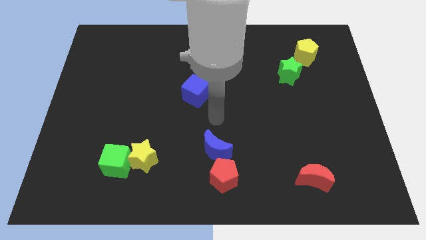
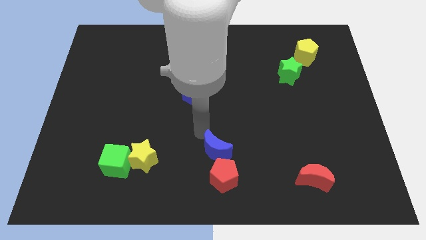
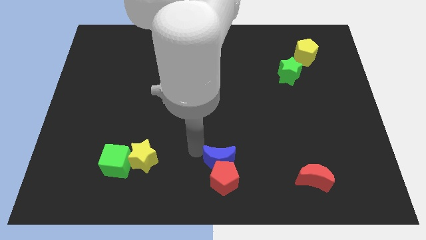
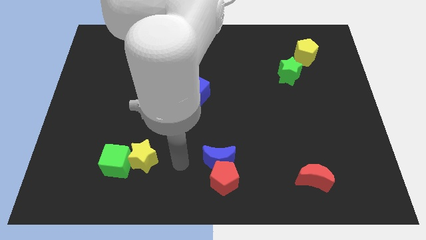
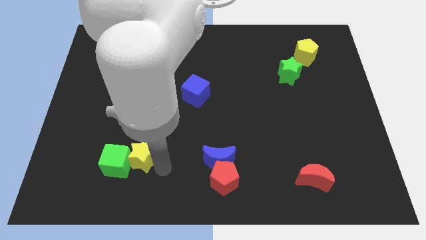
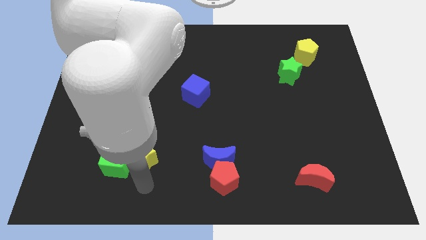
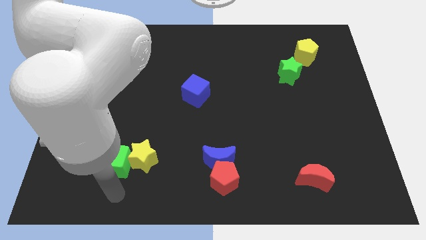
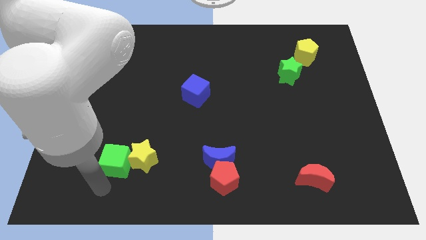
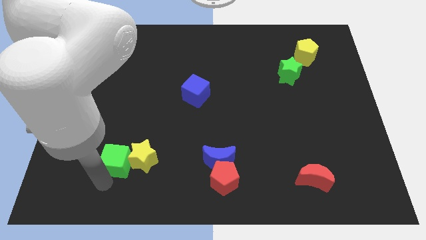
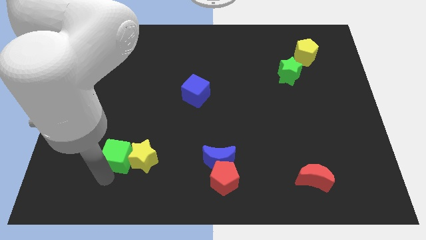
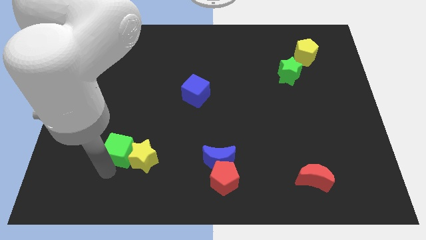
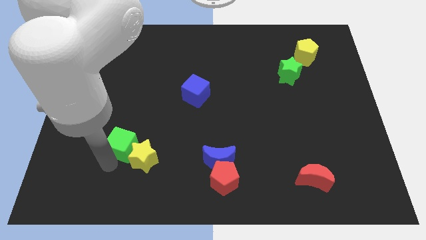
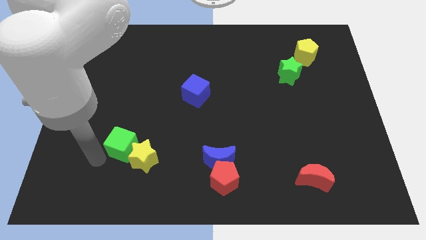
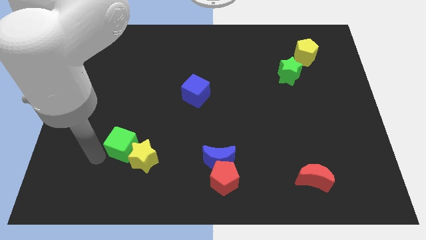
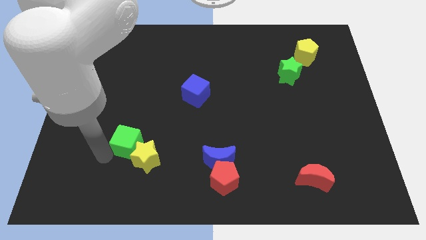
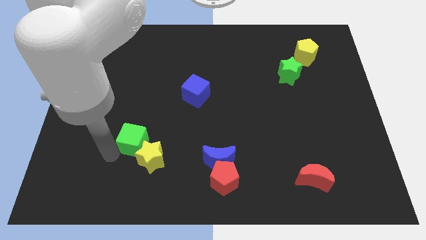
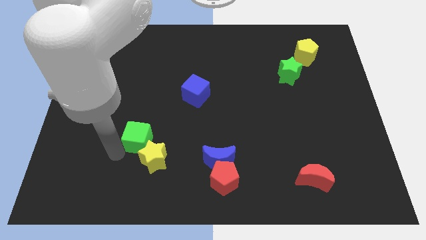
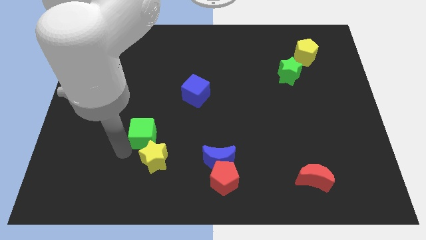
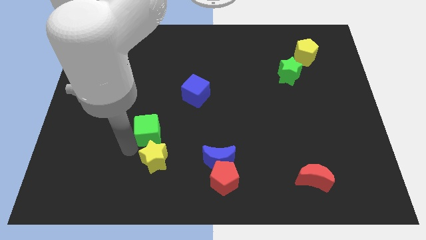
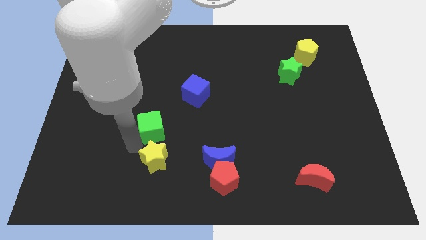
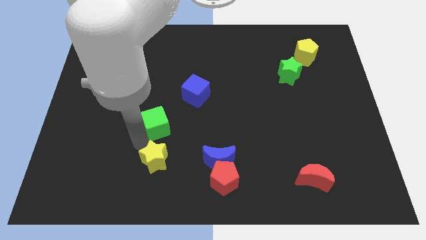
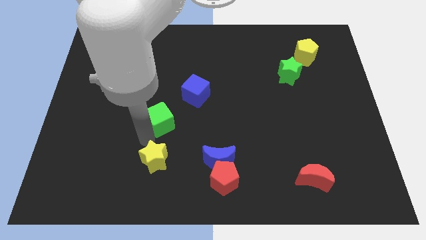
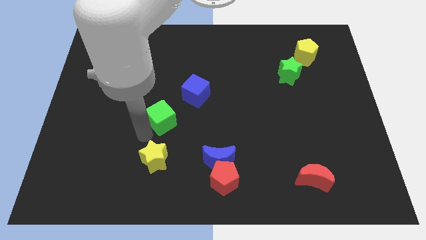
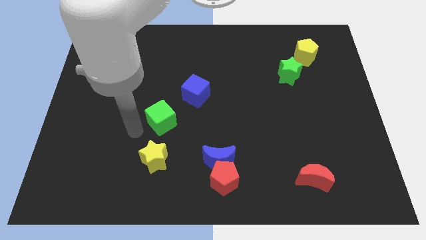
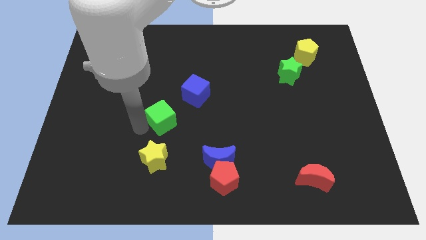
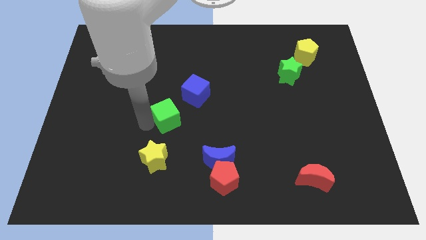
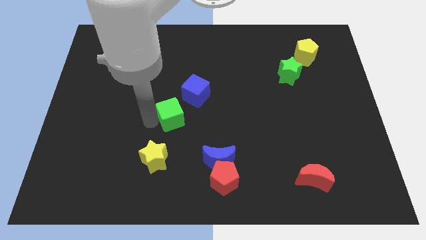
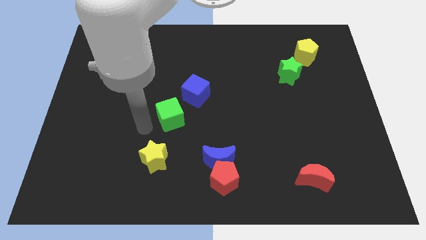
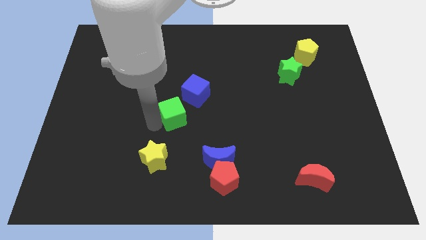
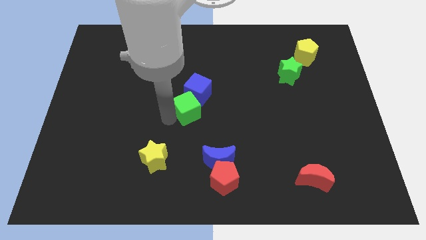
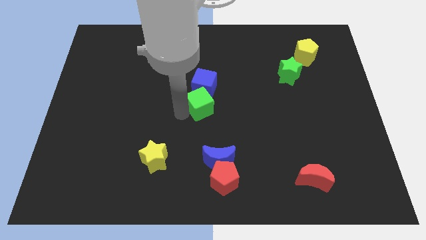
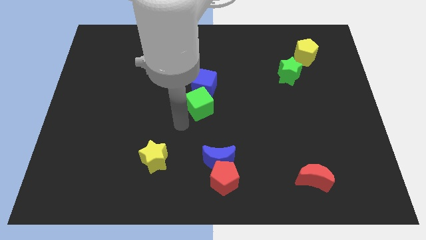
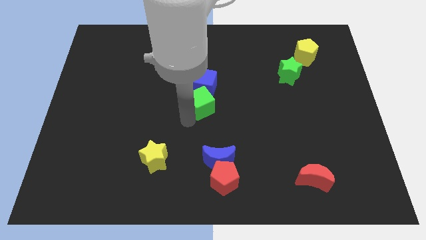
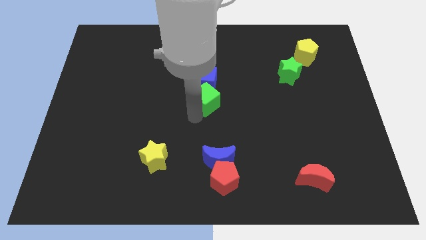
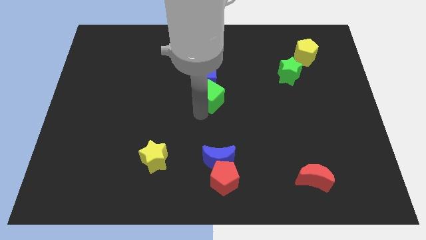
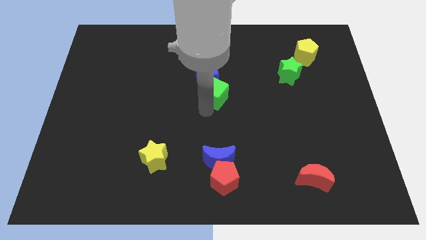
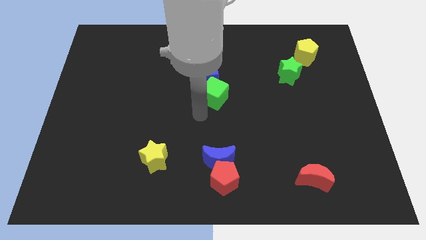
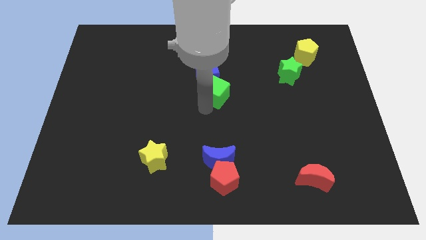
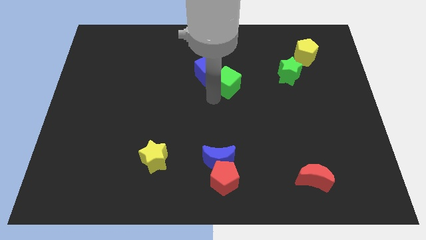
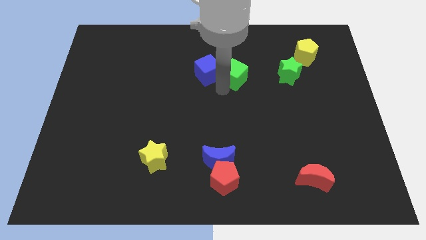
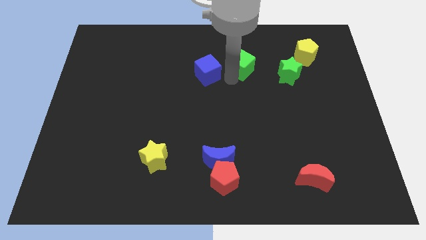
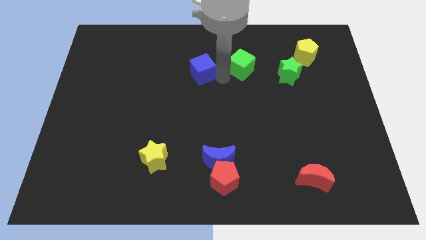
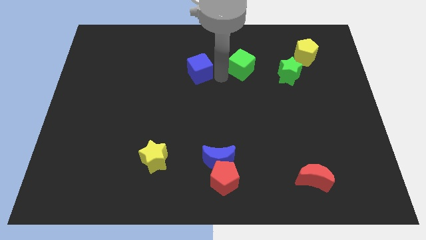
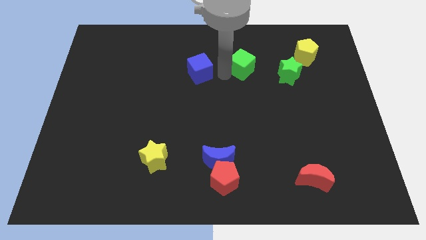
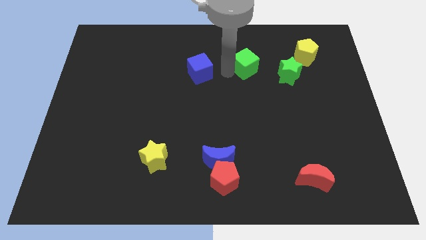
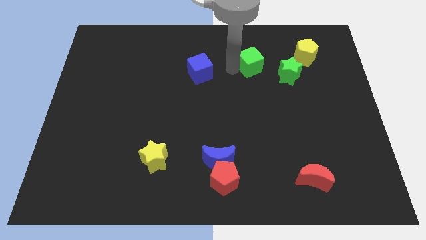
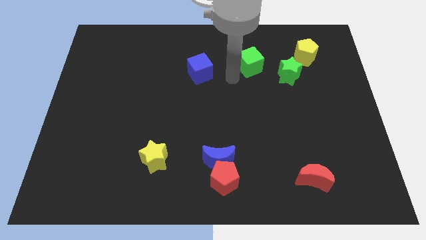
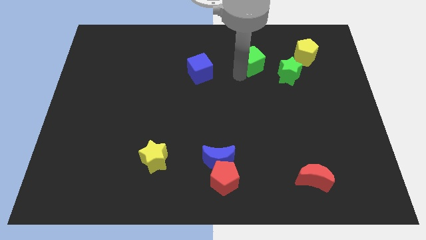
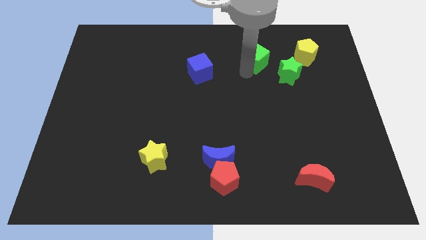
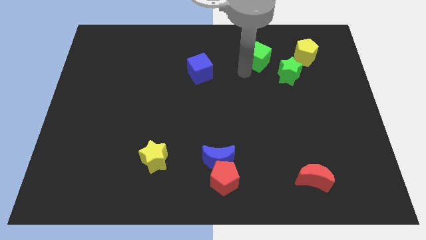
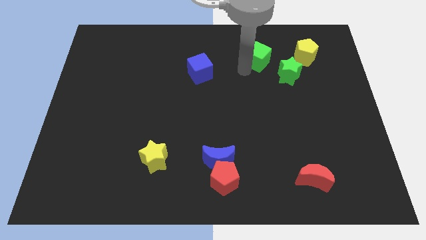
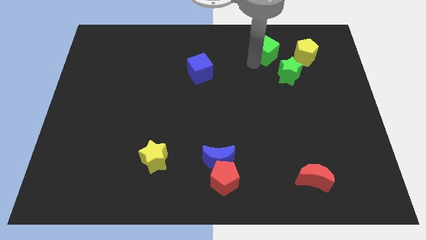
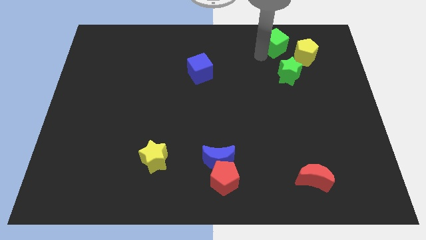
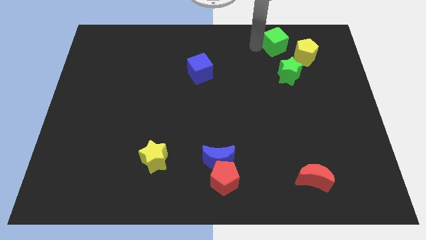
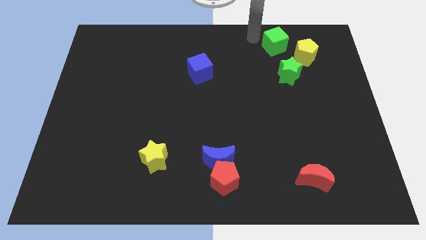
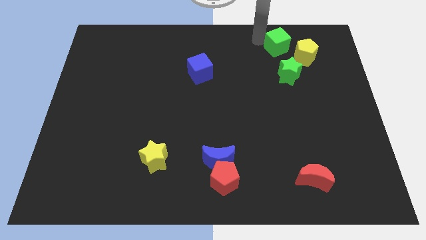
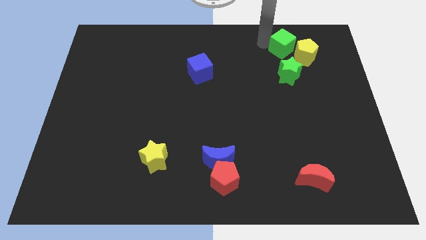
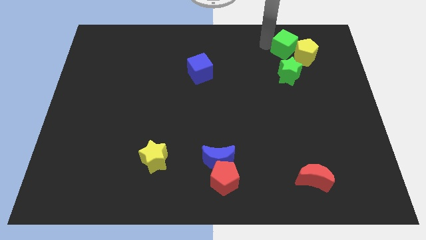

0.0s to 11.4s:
put the green cube close to the yellow pentagon

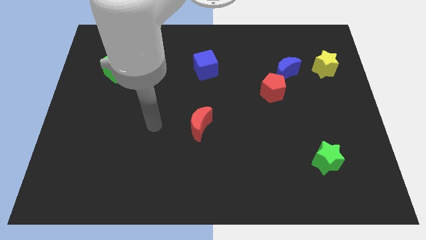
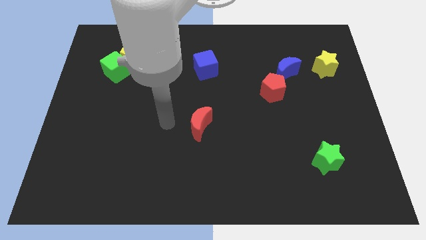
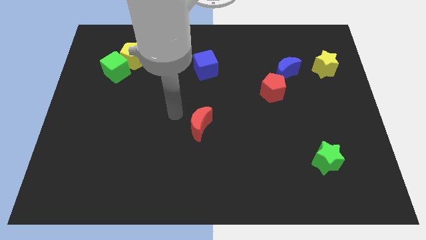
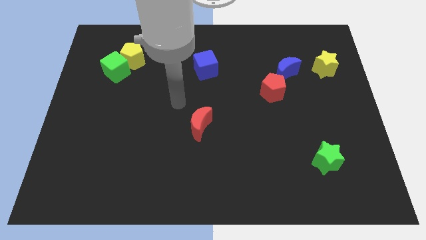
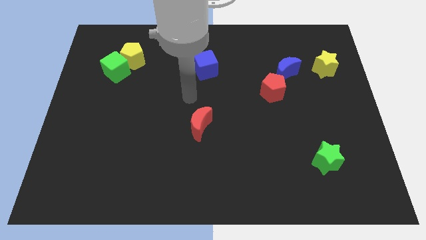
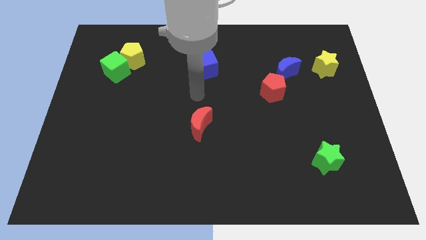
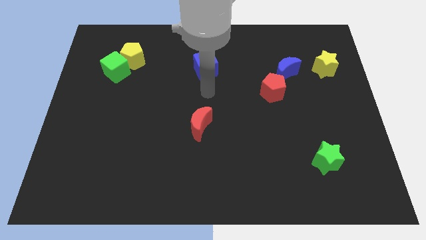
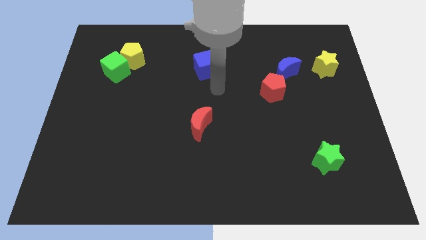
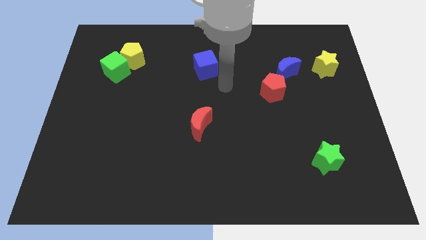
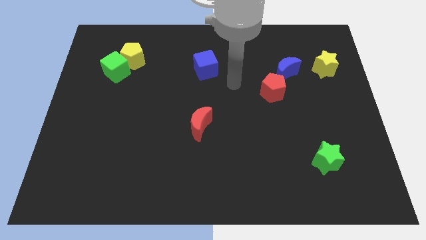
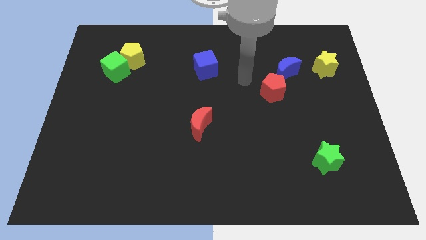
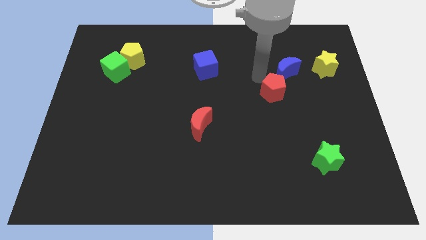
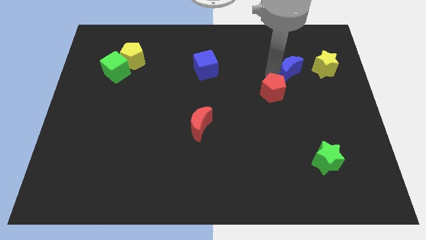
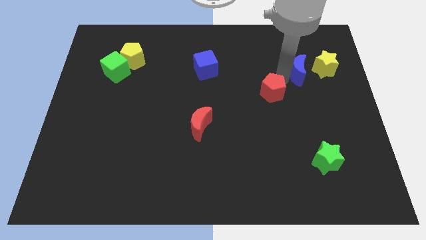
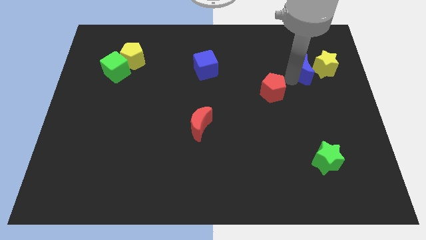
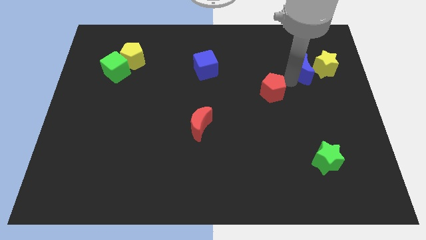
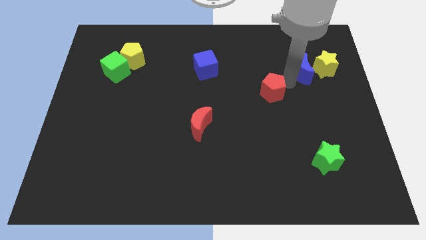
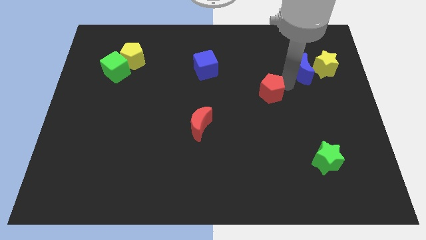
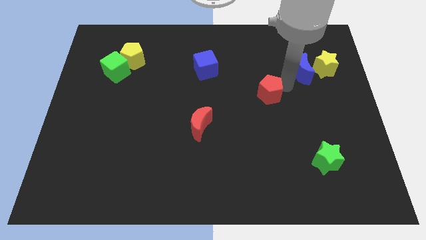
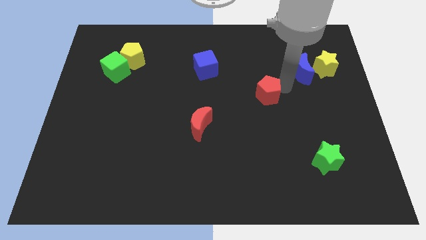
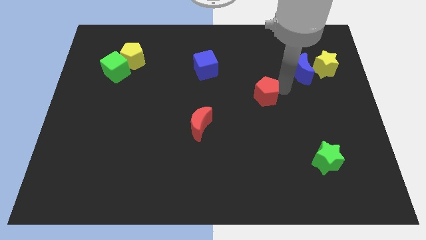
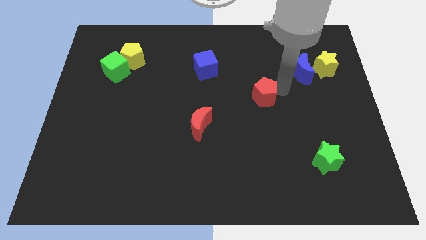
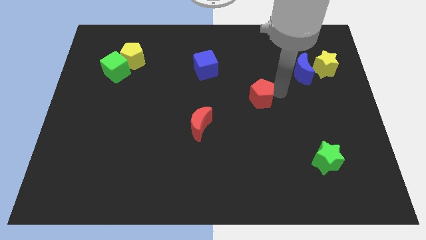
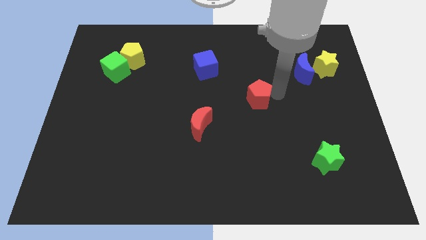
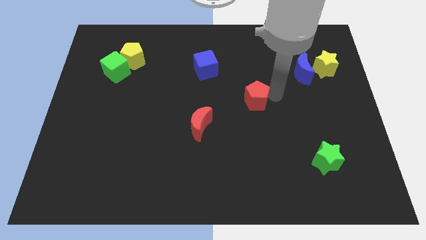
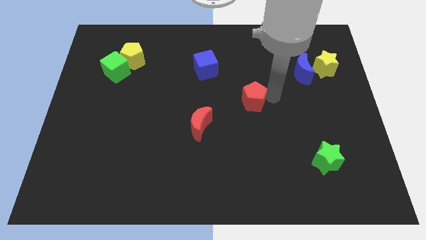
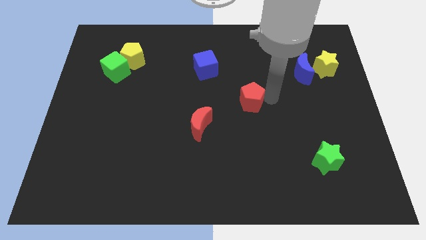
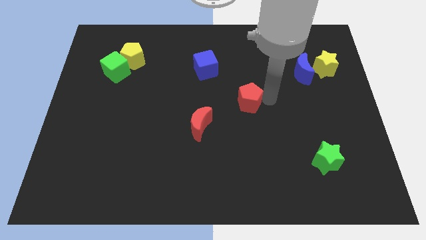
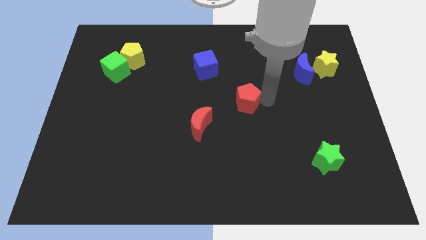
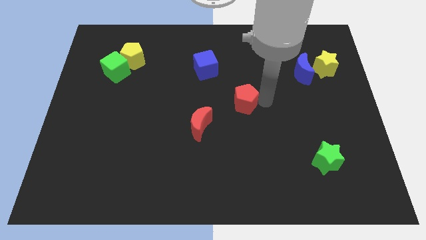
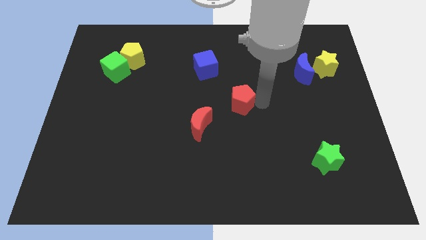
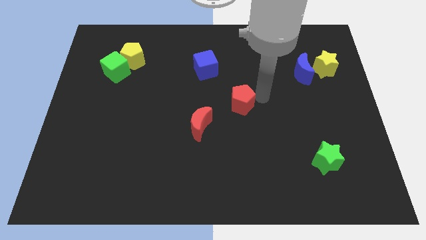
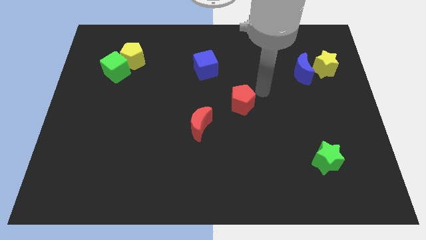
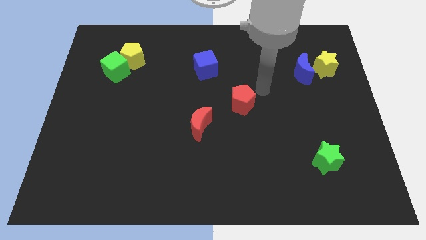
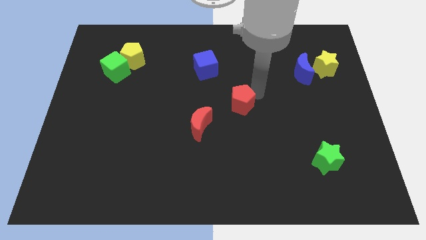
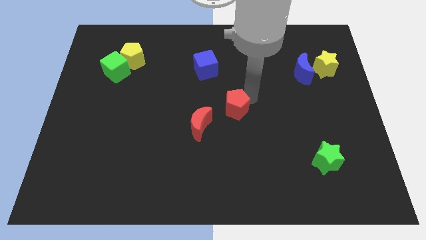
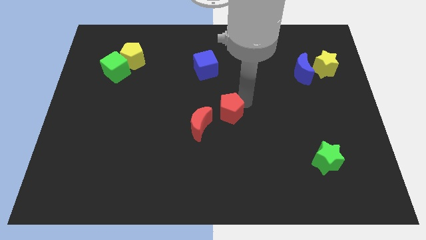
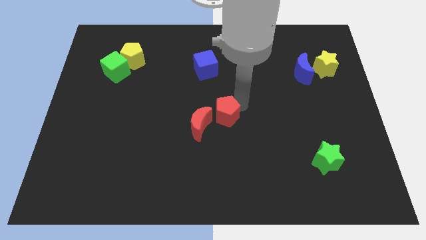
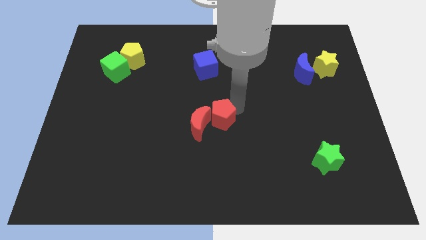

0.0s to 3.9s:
move the red pentagon close to the red moon
